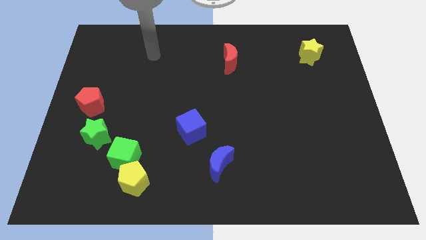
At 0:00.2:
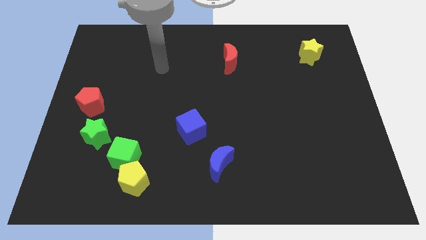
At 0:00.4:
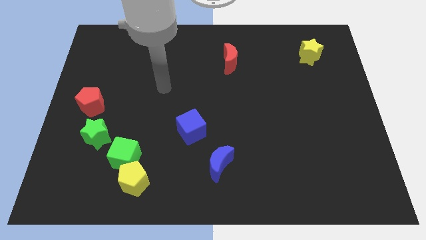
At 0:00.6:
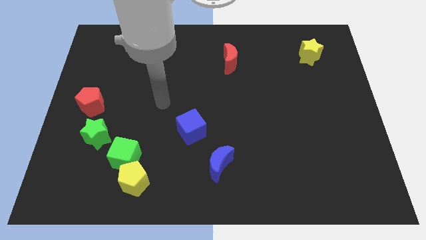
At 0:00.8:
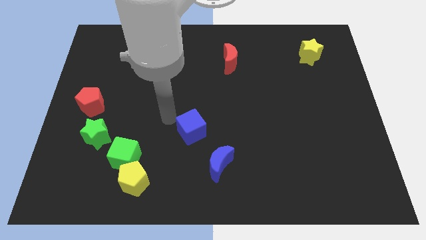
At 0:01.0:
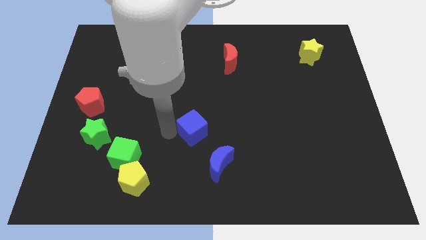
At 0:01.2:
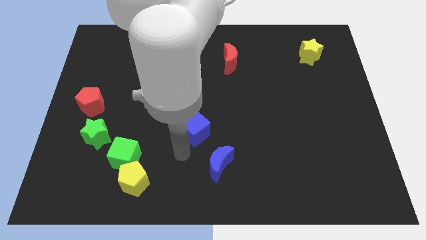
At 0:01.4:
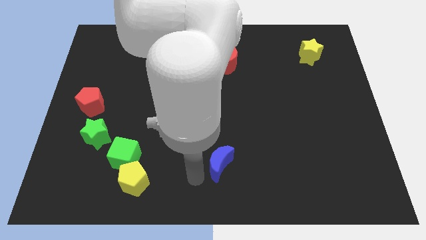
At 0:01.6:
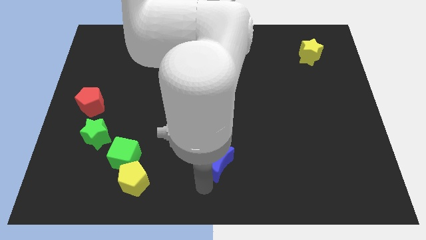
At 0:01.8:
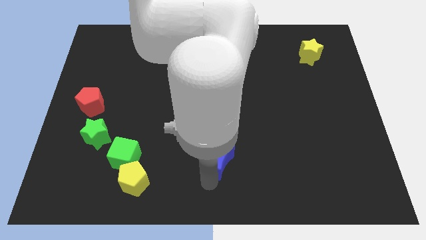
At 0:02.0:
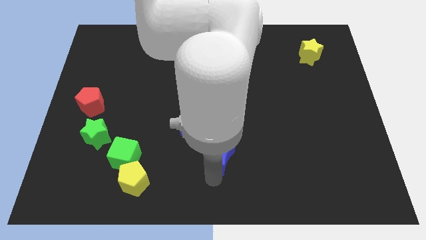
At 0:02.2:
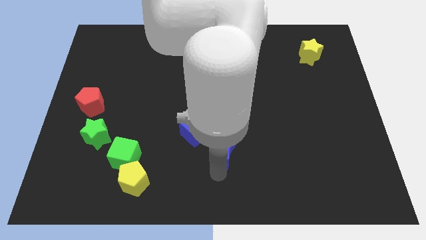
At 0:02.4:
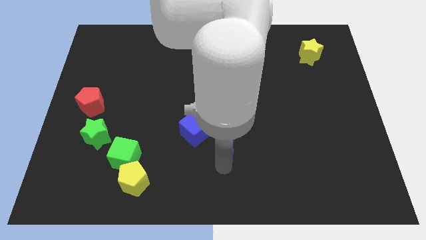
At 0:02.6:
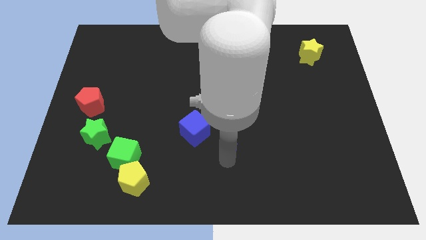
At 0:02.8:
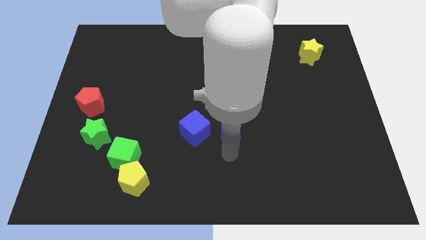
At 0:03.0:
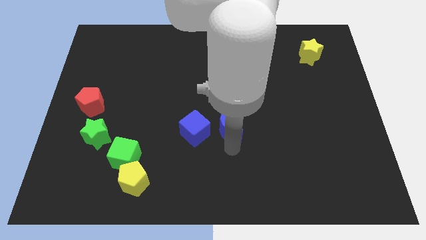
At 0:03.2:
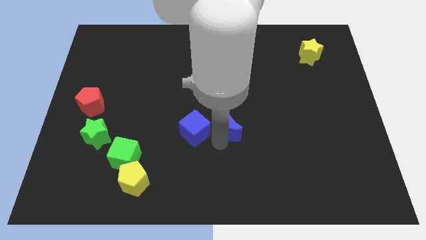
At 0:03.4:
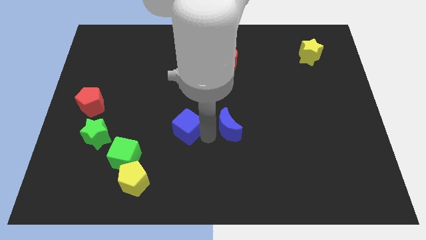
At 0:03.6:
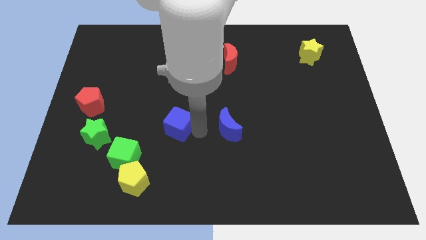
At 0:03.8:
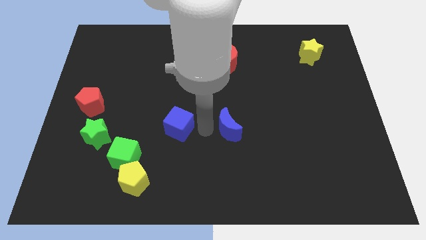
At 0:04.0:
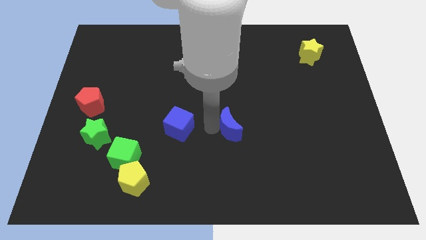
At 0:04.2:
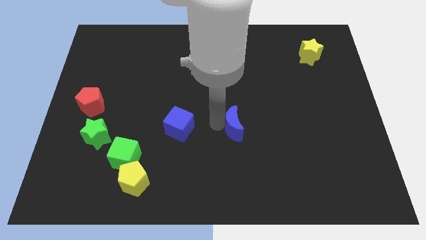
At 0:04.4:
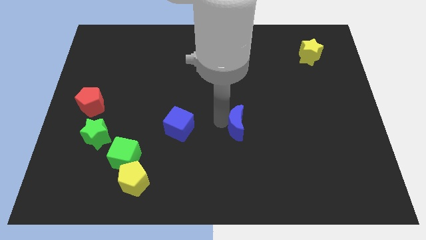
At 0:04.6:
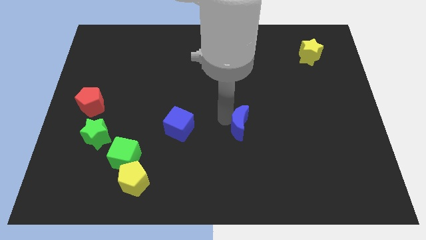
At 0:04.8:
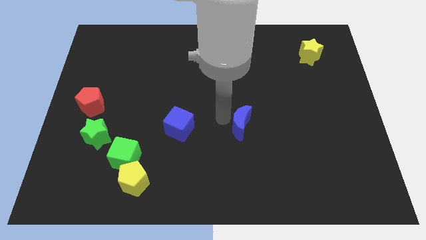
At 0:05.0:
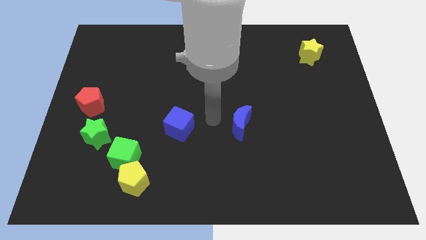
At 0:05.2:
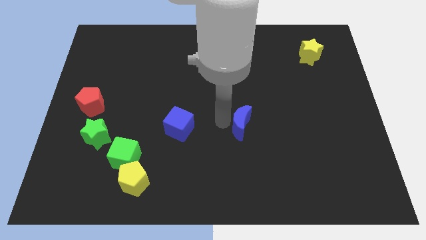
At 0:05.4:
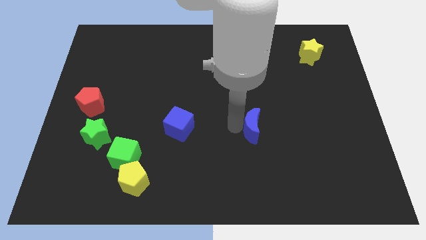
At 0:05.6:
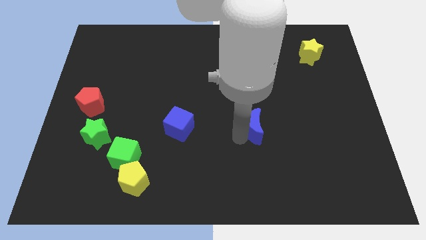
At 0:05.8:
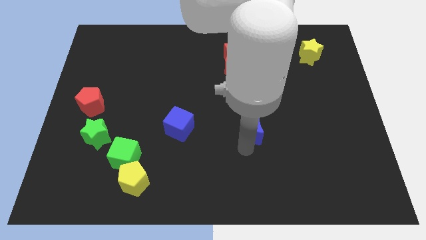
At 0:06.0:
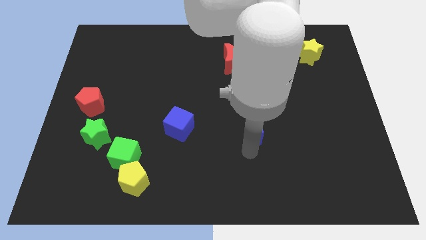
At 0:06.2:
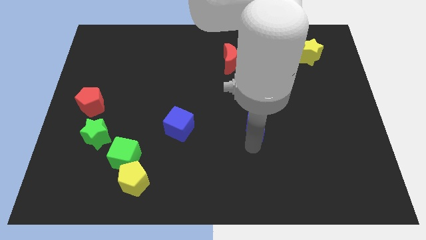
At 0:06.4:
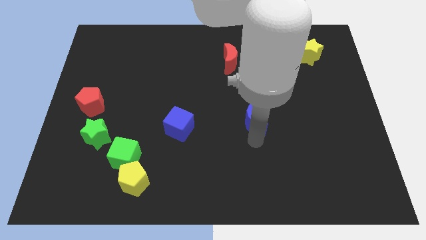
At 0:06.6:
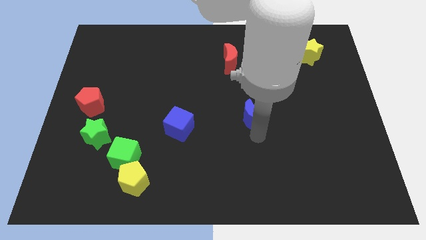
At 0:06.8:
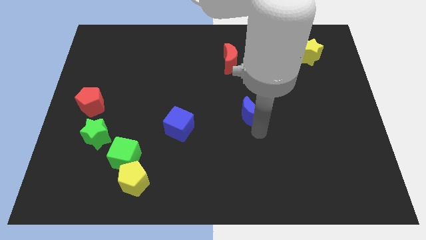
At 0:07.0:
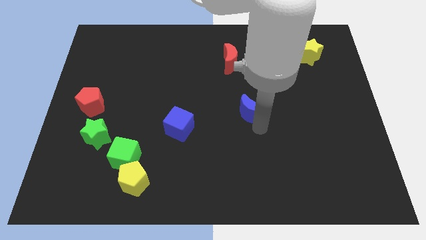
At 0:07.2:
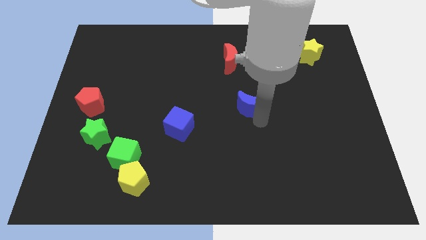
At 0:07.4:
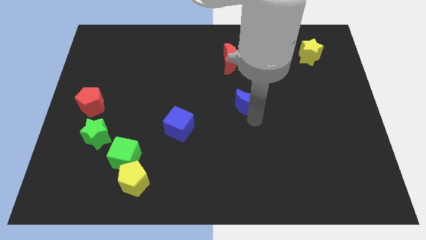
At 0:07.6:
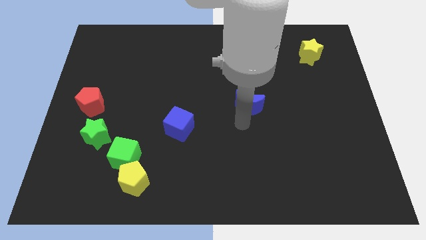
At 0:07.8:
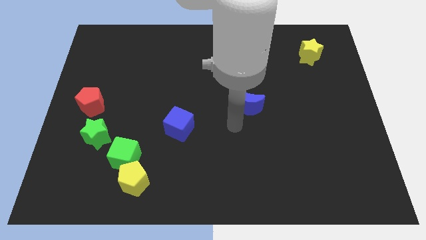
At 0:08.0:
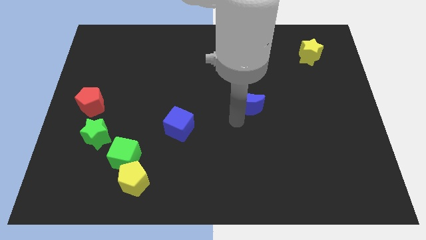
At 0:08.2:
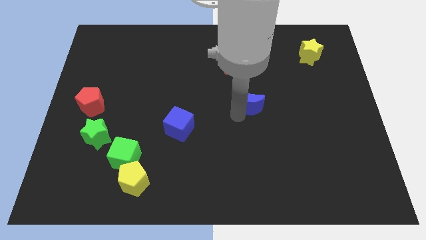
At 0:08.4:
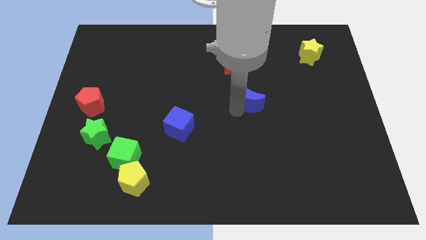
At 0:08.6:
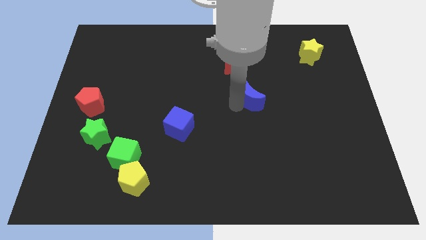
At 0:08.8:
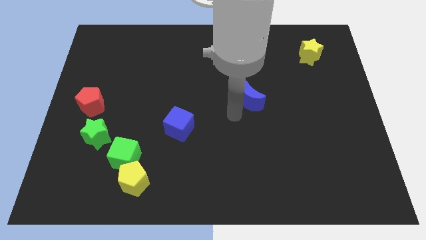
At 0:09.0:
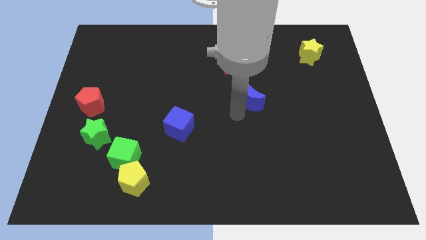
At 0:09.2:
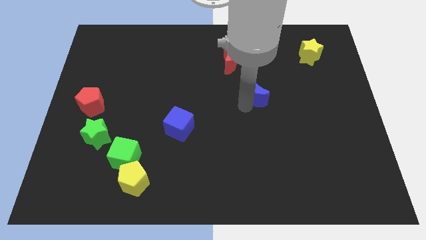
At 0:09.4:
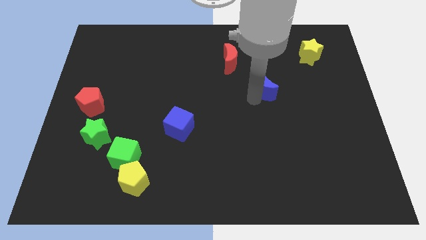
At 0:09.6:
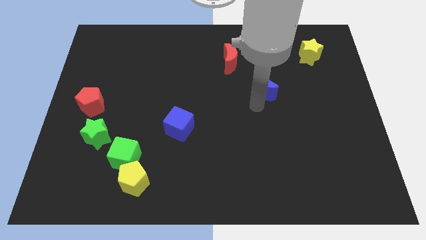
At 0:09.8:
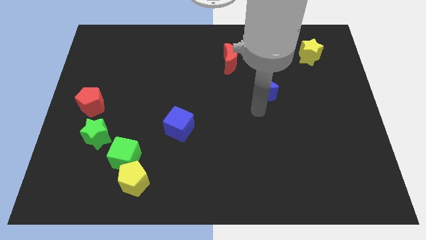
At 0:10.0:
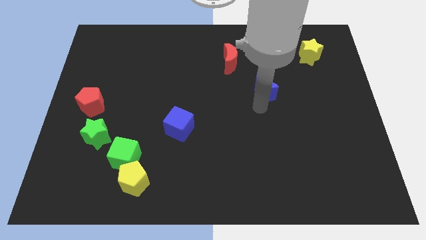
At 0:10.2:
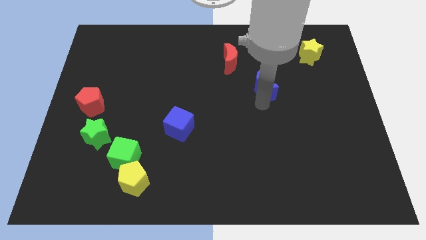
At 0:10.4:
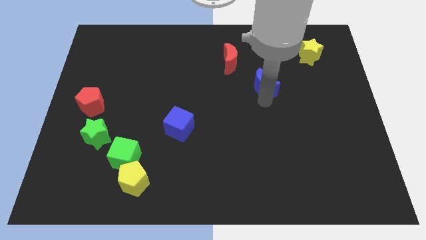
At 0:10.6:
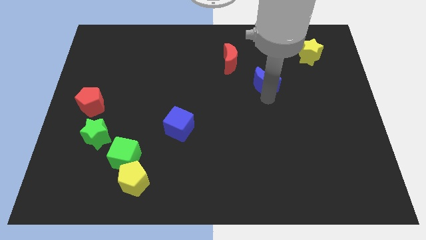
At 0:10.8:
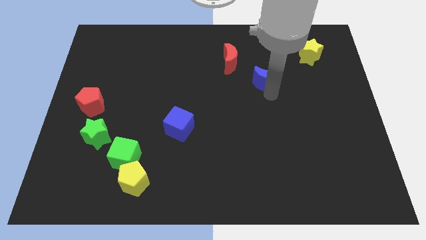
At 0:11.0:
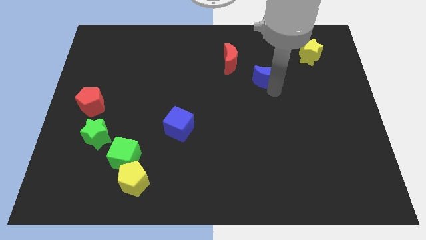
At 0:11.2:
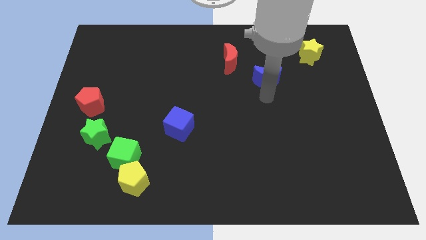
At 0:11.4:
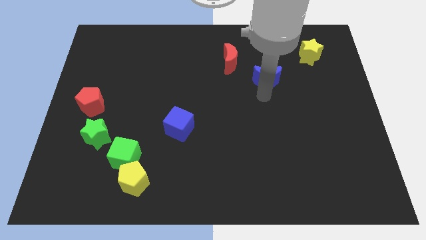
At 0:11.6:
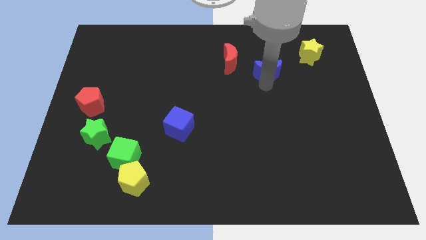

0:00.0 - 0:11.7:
slide the blue moon right of the red moon
